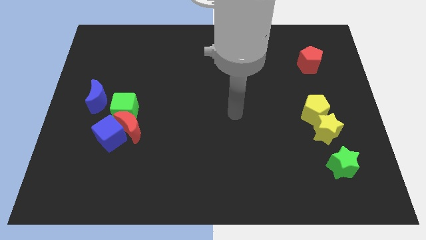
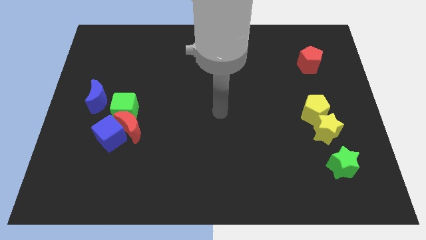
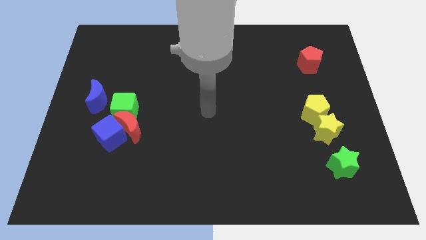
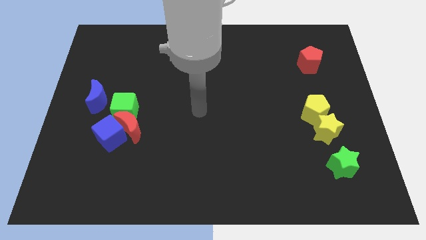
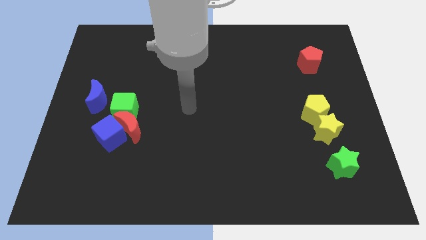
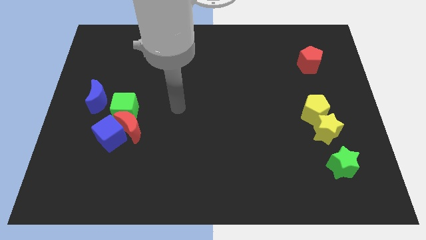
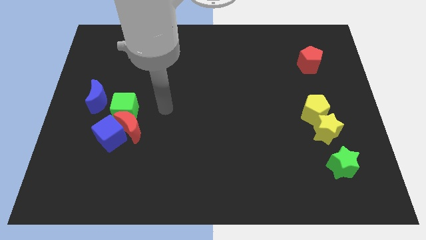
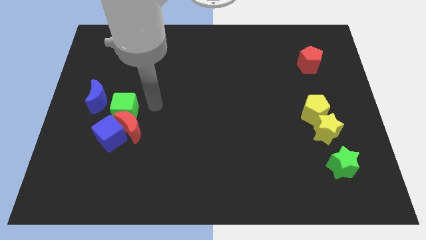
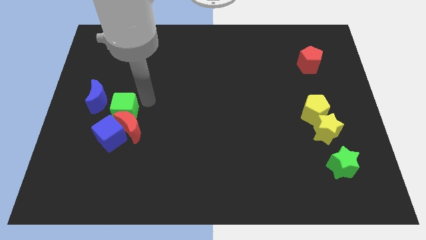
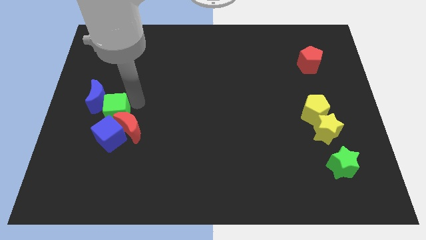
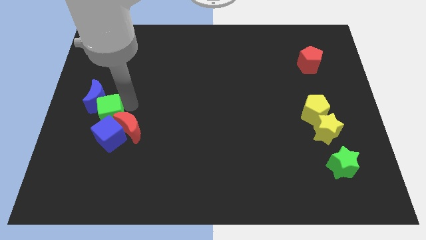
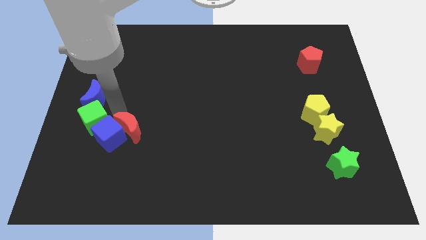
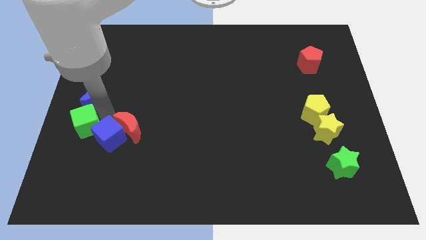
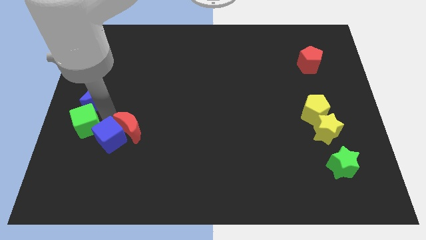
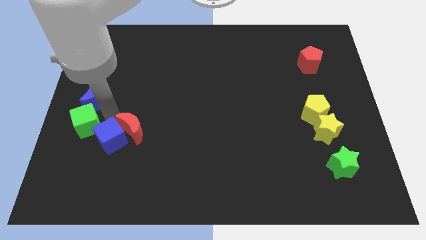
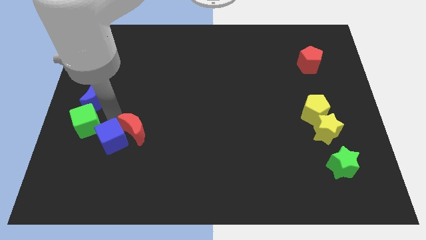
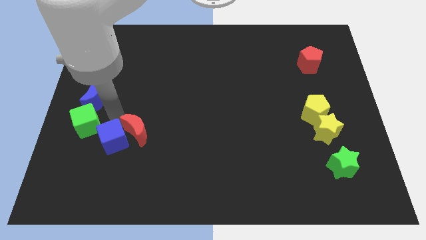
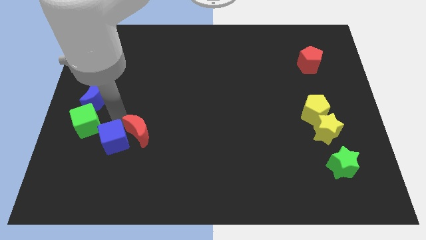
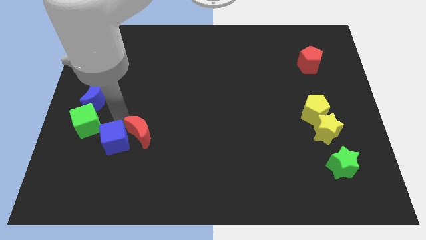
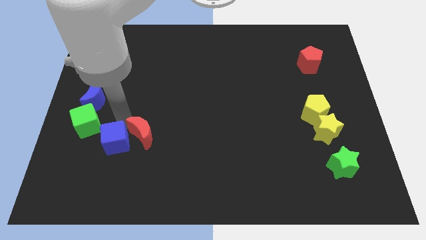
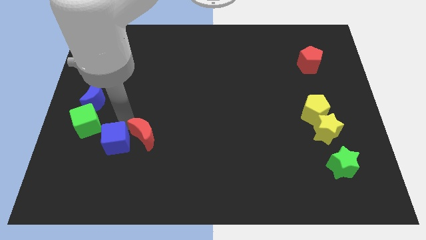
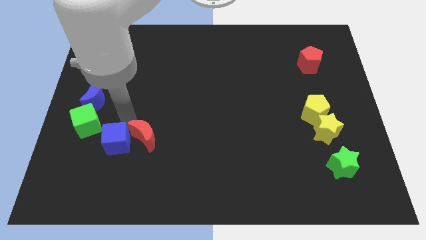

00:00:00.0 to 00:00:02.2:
move the red moon away from the blue cube and green cube

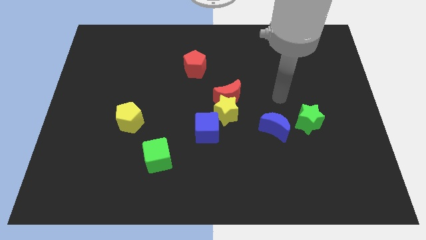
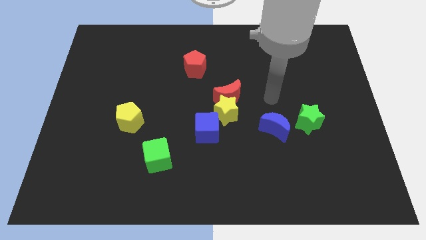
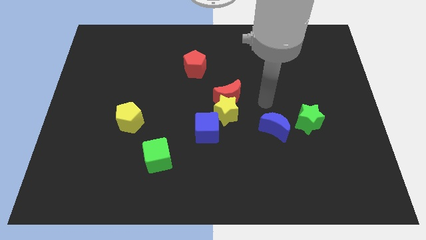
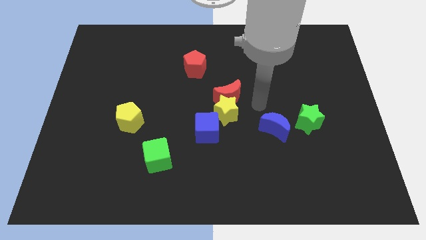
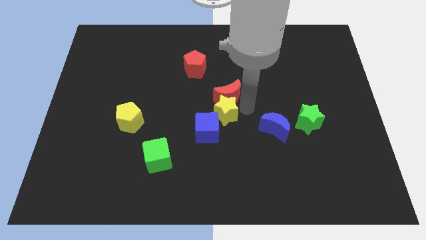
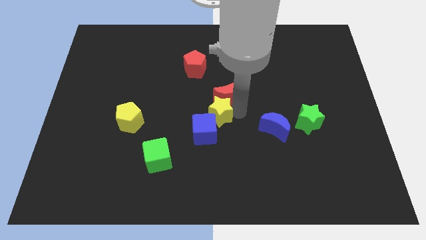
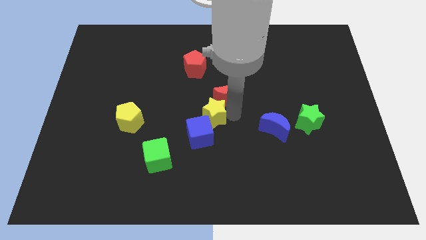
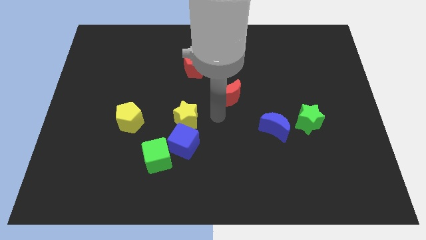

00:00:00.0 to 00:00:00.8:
move the red moon away from the yellow star

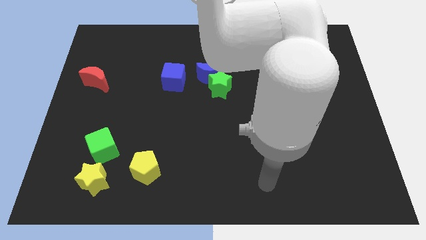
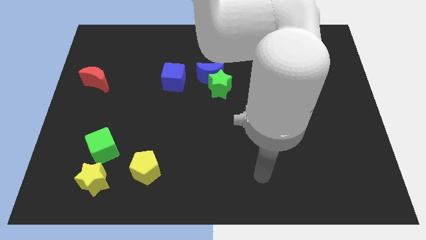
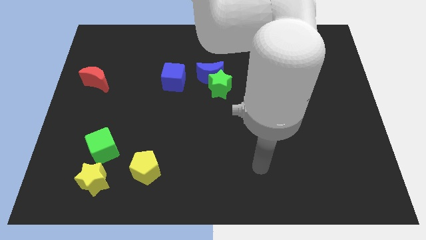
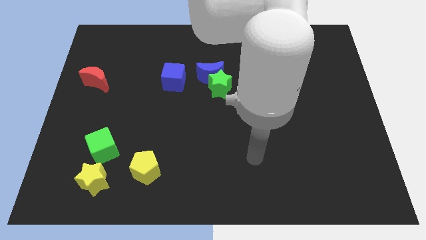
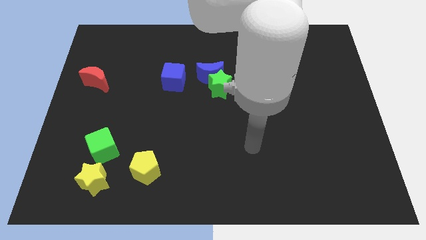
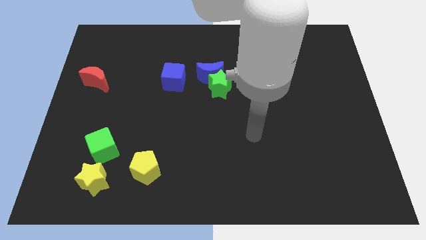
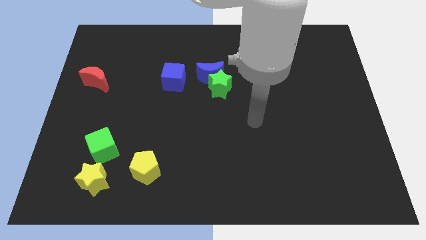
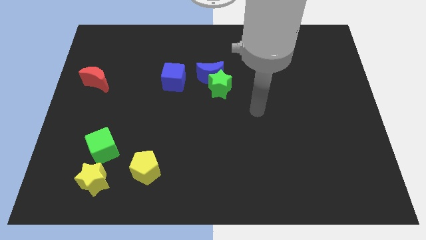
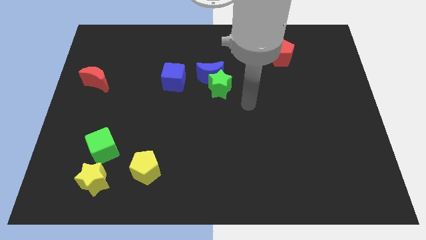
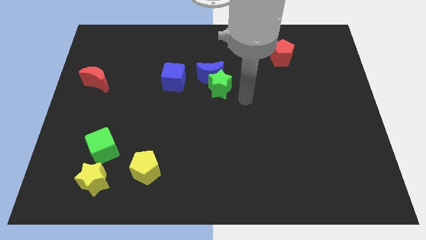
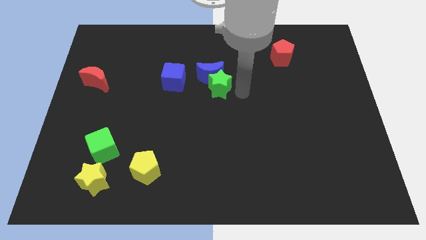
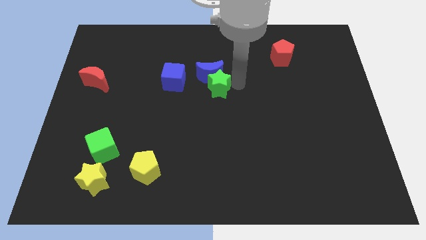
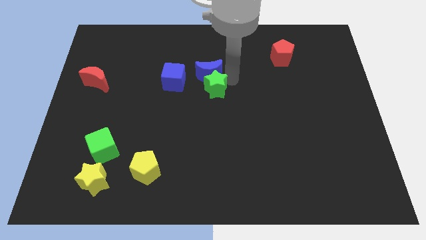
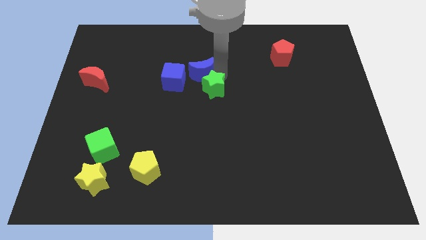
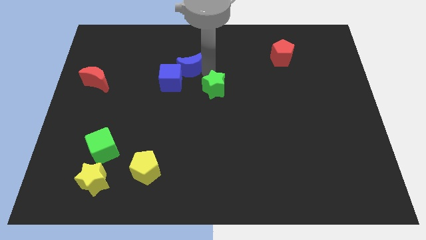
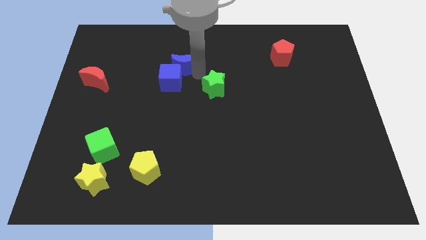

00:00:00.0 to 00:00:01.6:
separate the green star from the blue moon

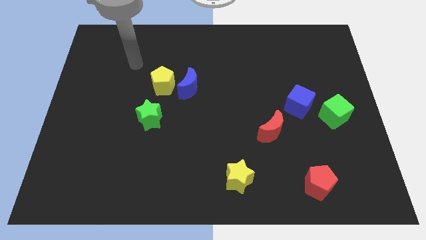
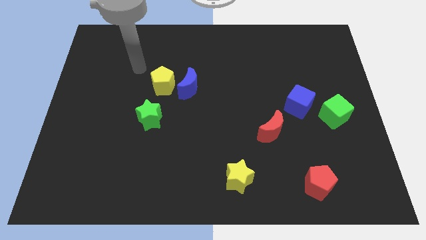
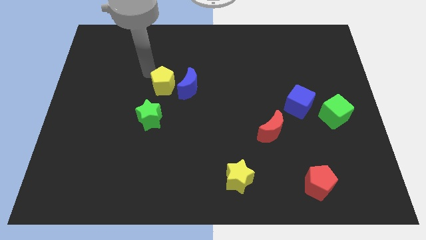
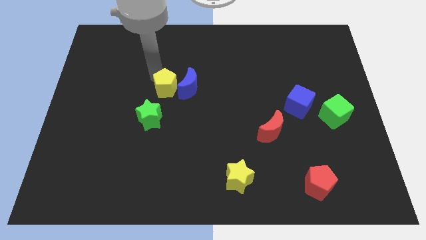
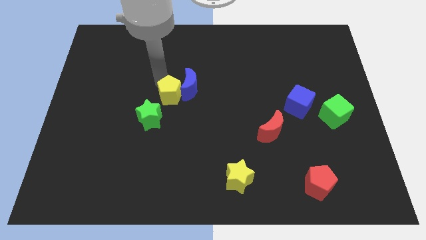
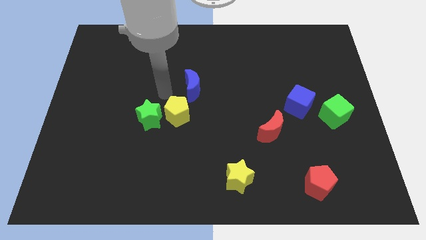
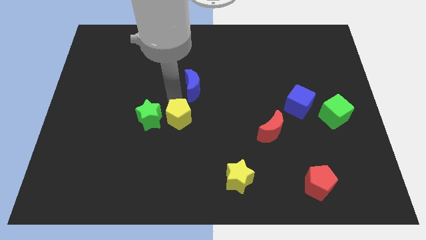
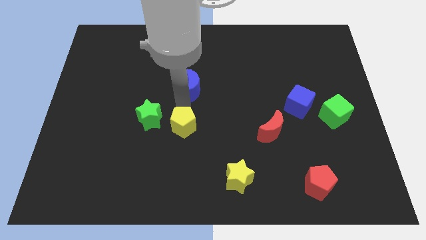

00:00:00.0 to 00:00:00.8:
separate the blue moon from the yellow pentagon

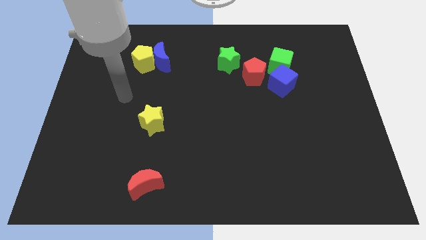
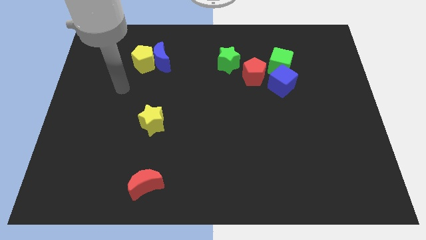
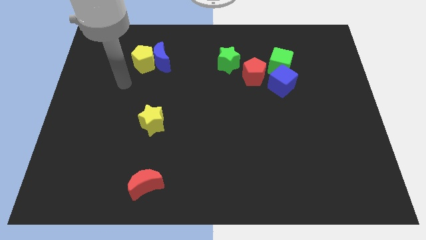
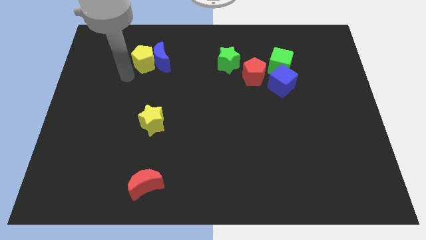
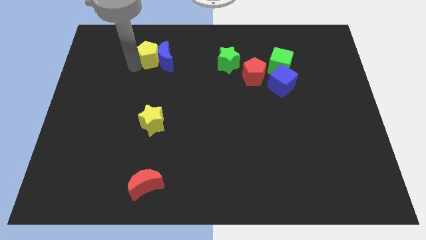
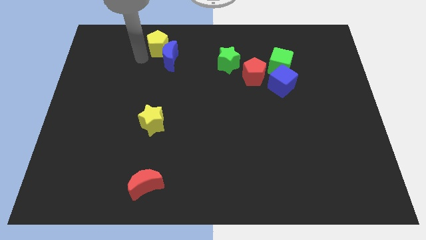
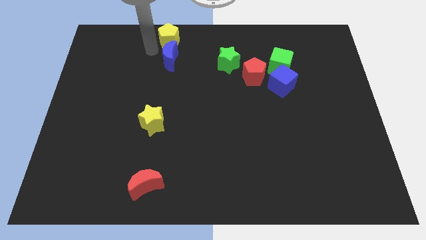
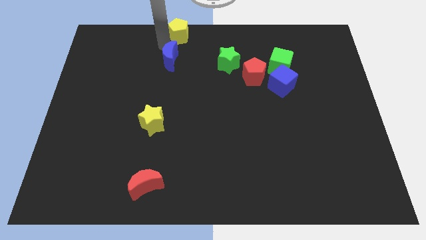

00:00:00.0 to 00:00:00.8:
move the blue moon away from the yellow pentagon

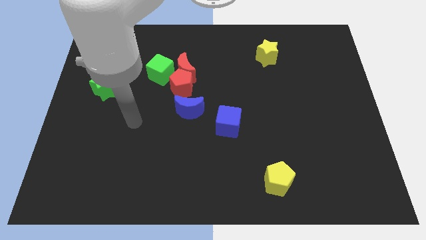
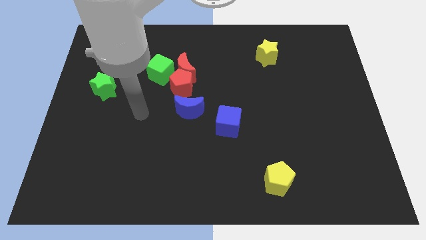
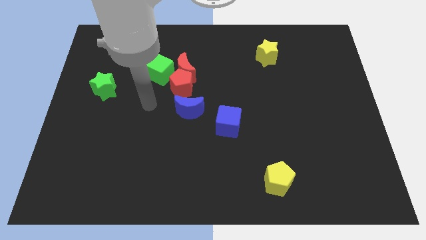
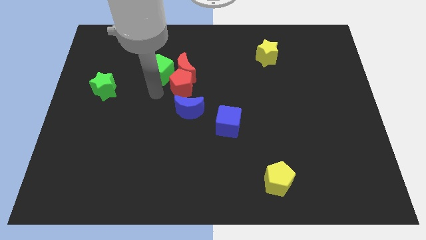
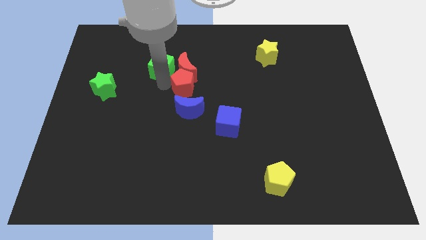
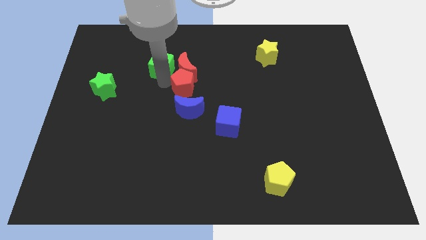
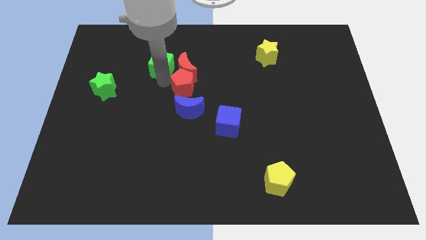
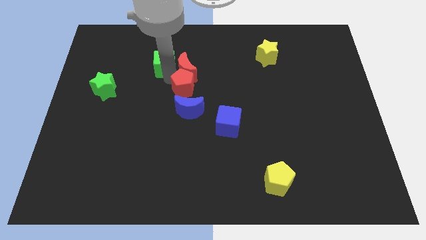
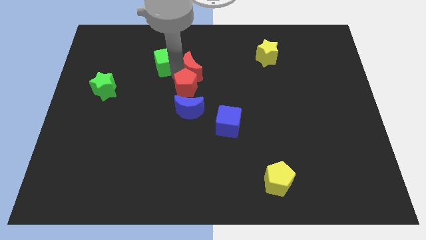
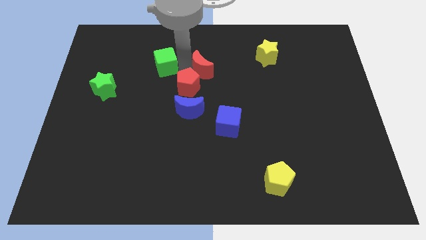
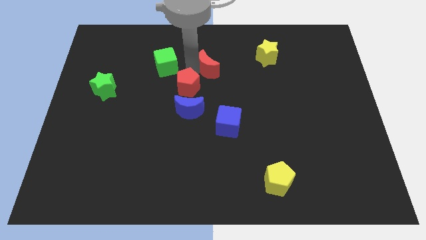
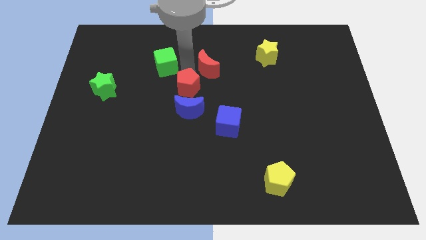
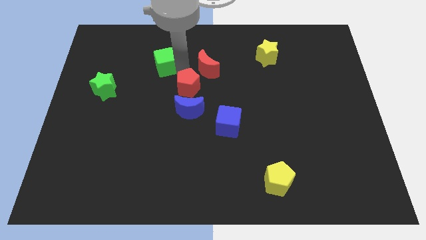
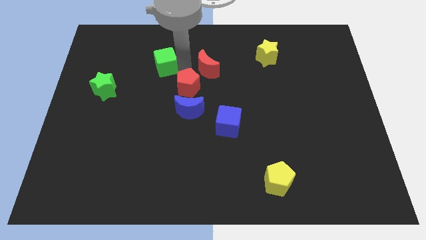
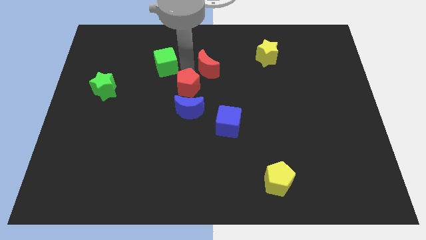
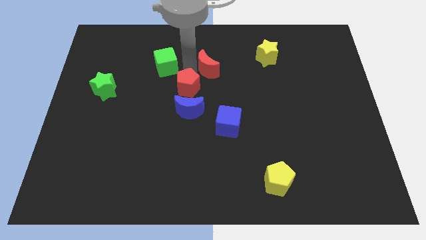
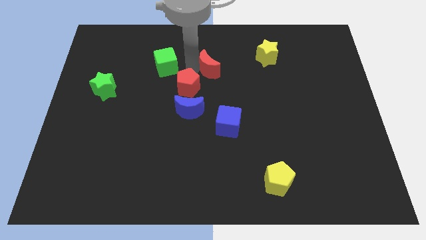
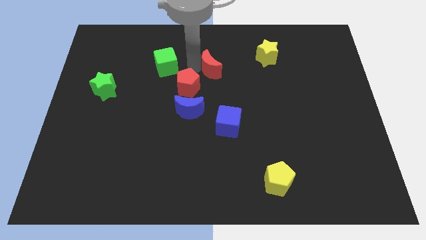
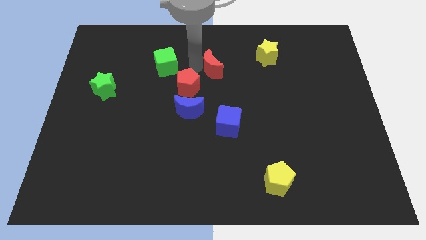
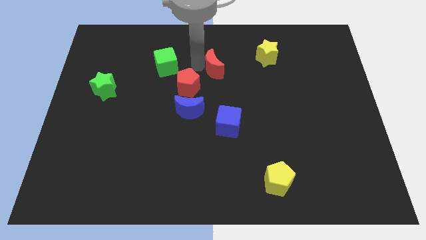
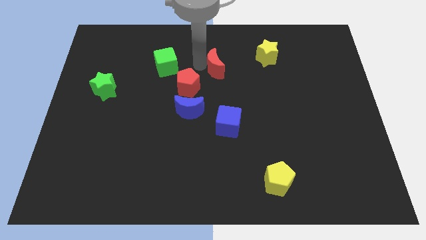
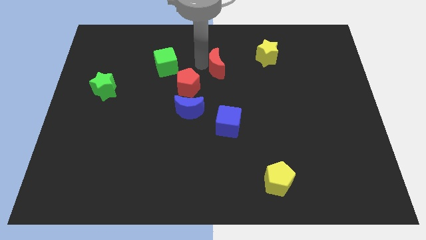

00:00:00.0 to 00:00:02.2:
pull the red moon apart from the red pentagon and green cube

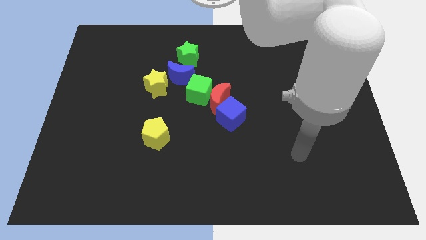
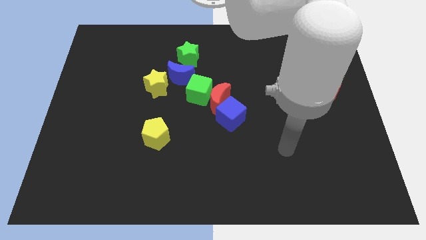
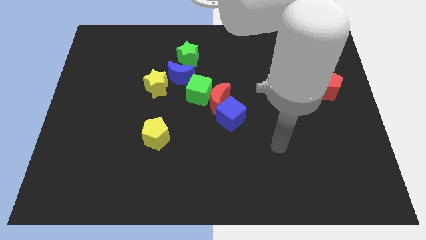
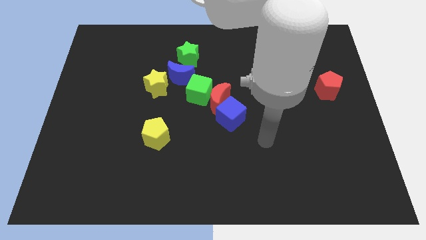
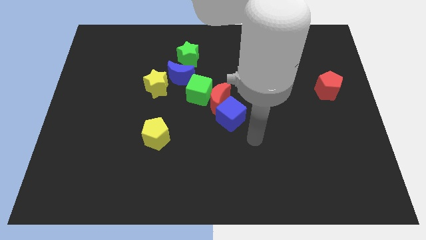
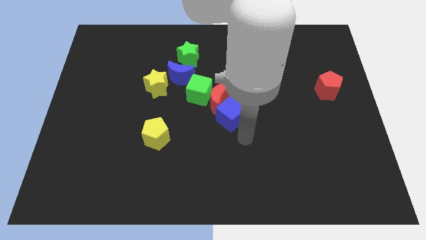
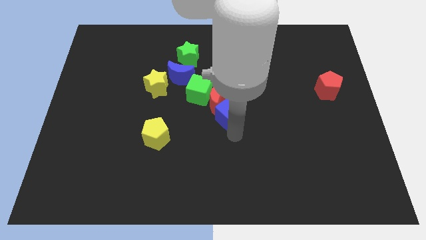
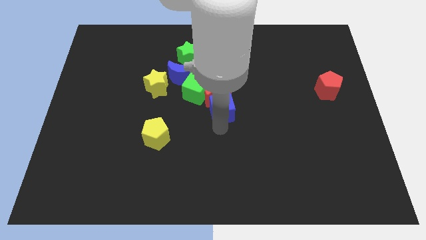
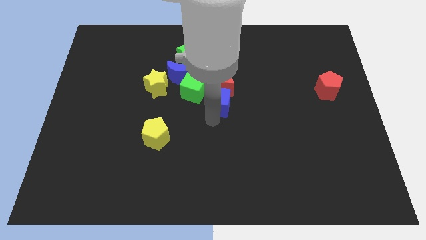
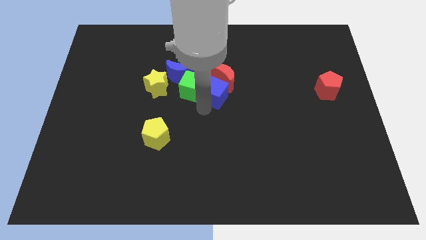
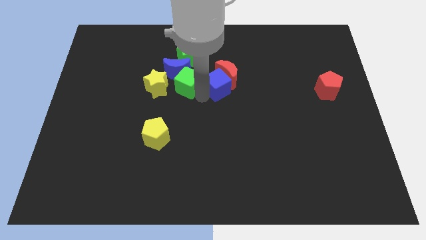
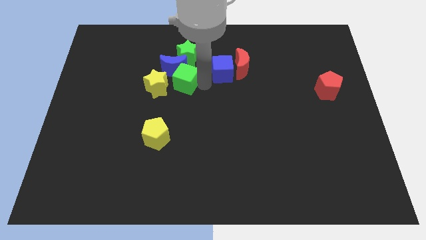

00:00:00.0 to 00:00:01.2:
pull the red moon apart from the green cube and blue cube
